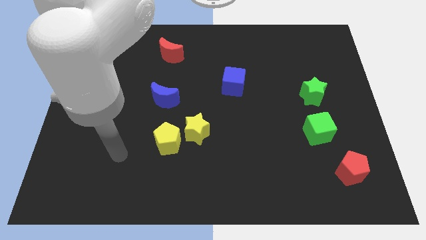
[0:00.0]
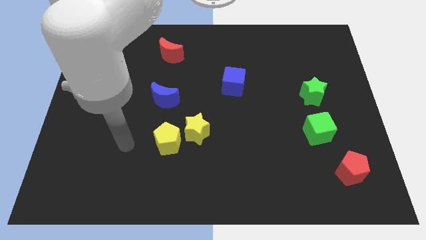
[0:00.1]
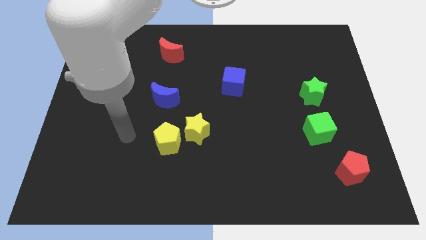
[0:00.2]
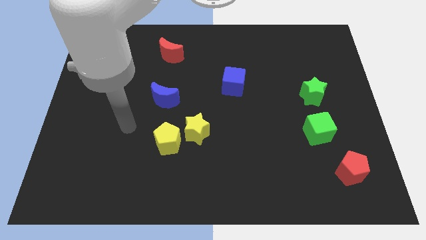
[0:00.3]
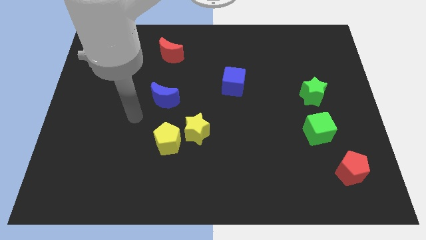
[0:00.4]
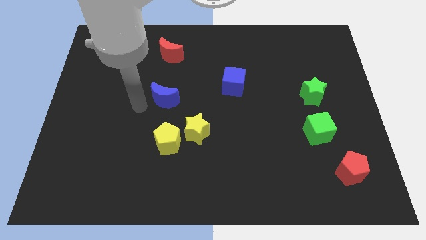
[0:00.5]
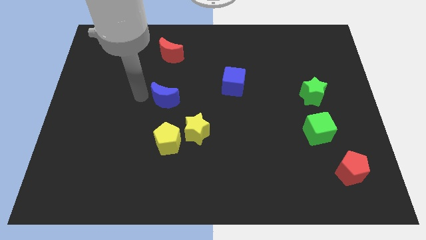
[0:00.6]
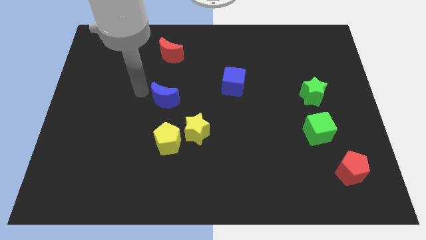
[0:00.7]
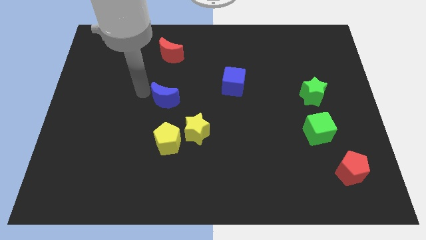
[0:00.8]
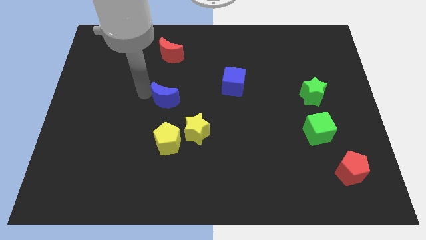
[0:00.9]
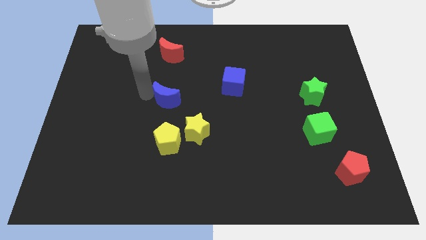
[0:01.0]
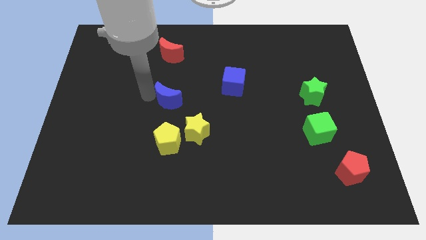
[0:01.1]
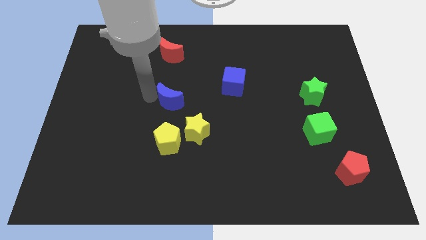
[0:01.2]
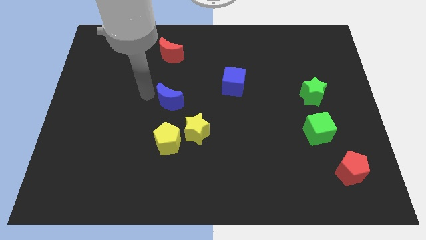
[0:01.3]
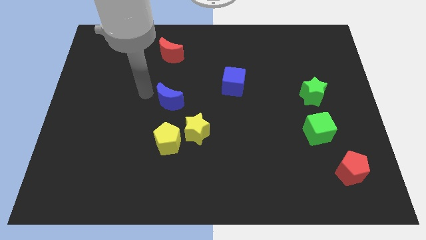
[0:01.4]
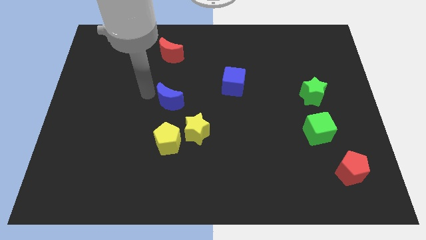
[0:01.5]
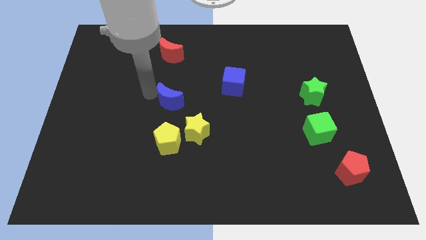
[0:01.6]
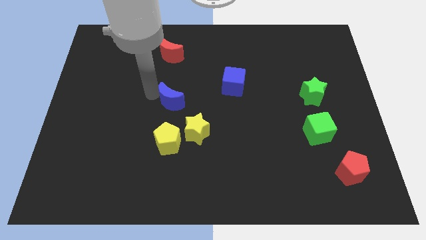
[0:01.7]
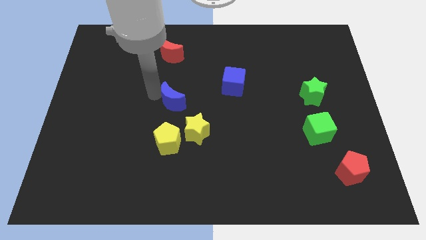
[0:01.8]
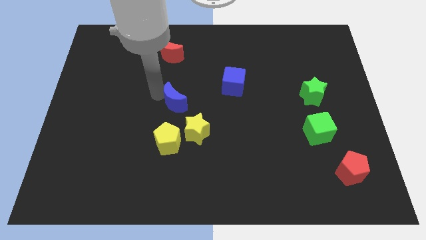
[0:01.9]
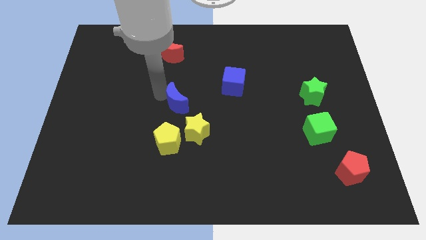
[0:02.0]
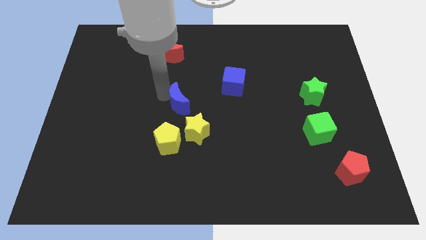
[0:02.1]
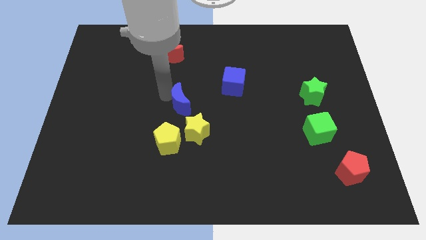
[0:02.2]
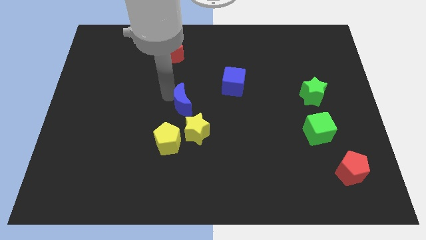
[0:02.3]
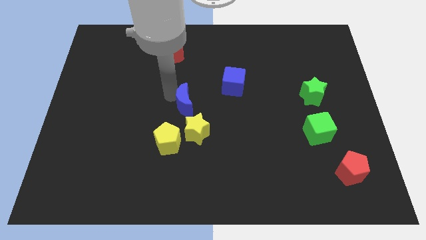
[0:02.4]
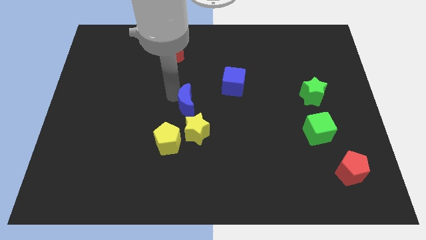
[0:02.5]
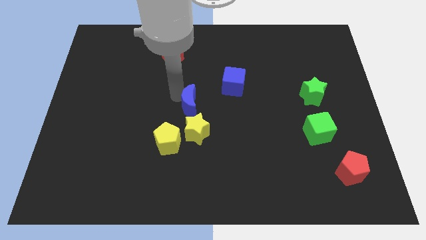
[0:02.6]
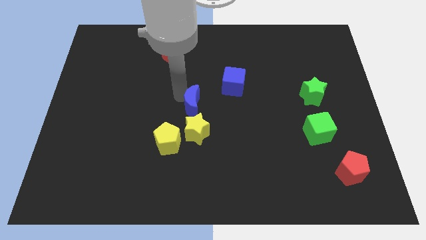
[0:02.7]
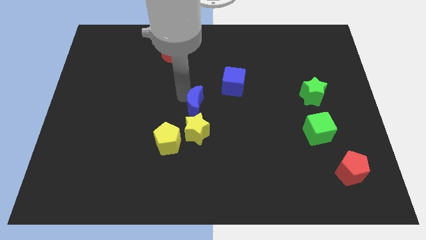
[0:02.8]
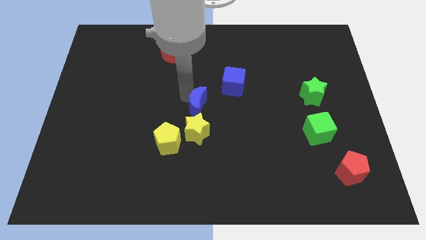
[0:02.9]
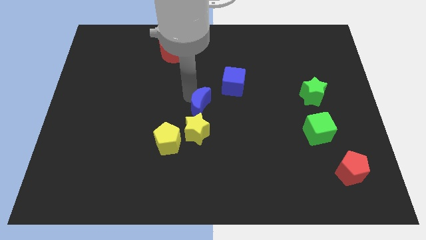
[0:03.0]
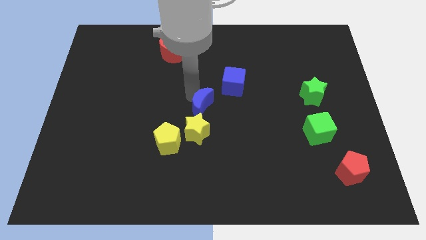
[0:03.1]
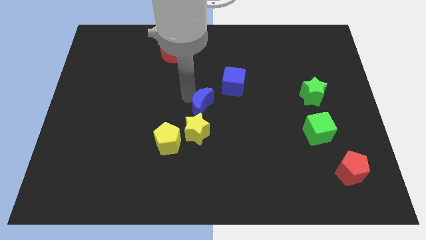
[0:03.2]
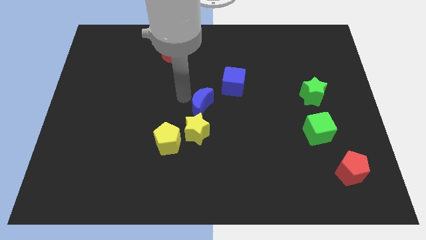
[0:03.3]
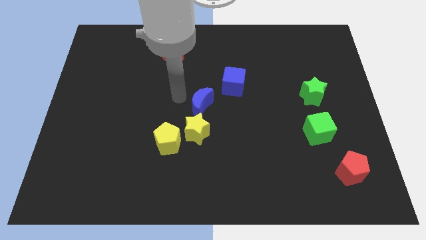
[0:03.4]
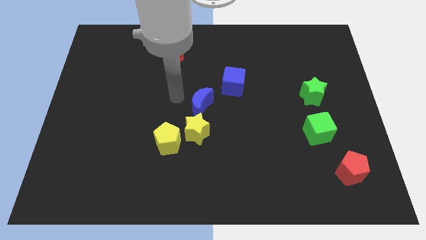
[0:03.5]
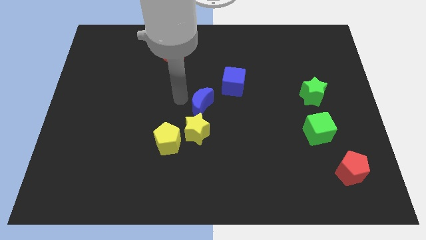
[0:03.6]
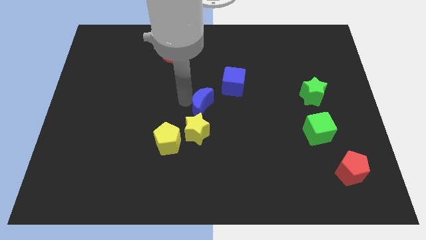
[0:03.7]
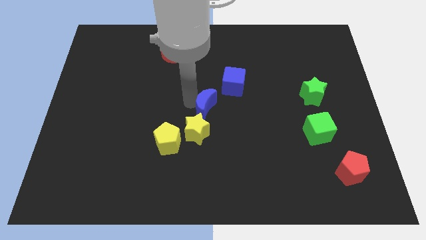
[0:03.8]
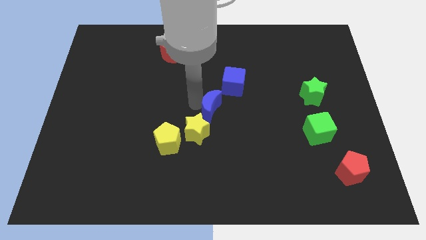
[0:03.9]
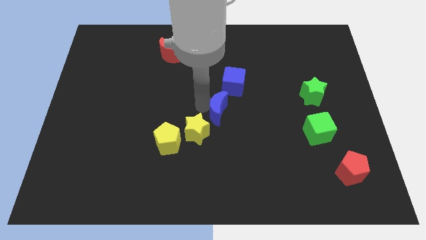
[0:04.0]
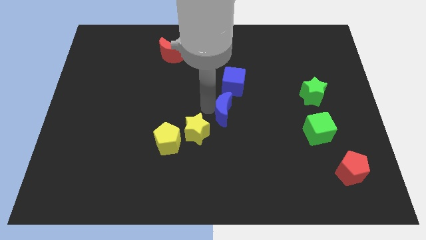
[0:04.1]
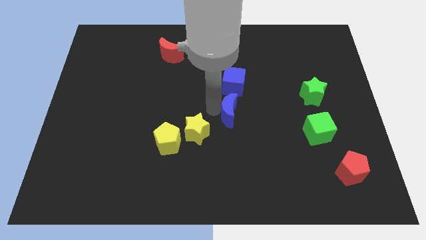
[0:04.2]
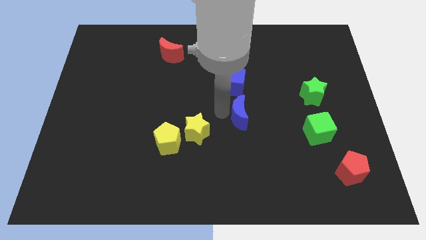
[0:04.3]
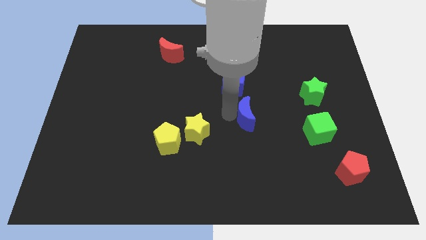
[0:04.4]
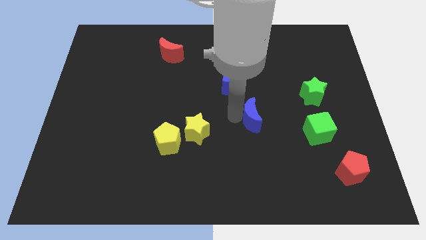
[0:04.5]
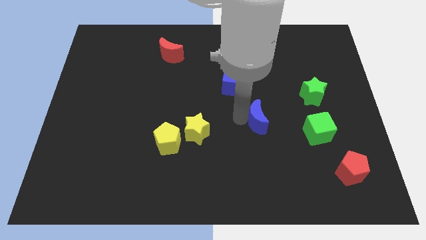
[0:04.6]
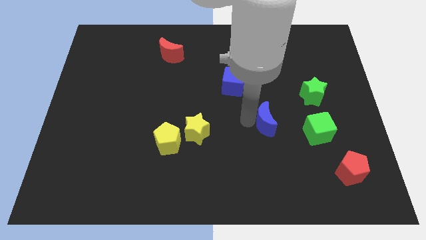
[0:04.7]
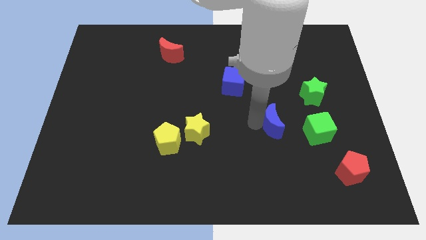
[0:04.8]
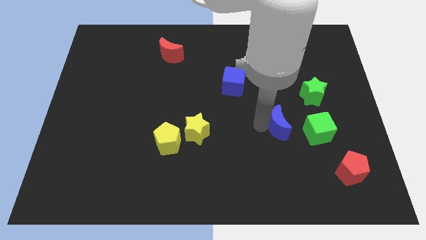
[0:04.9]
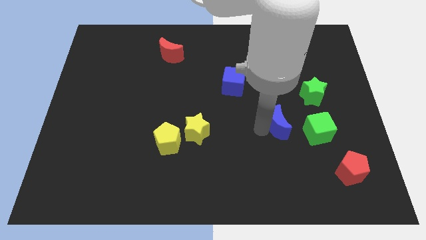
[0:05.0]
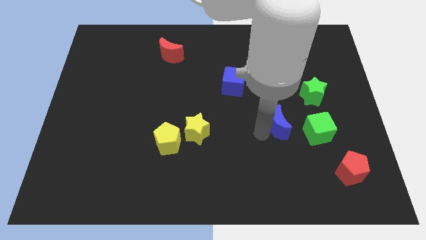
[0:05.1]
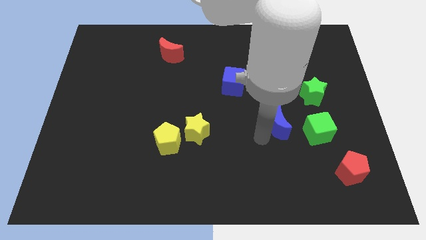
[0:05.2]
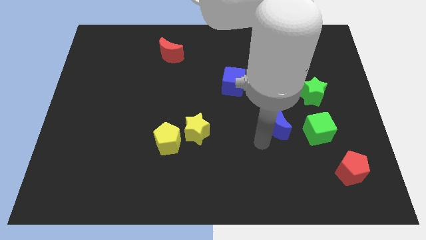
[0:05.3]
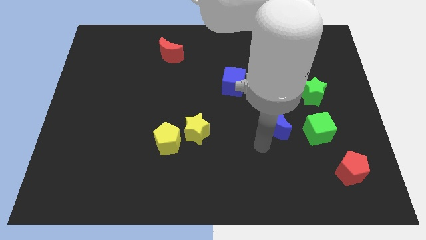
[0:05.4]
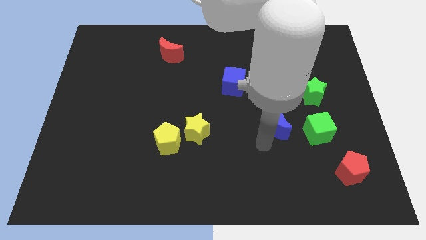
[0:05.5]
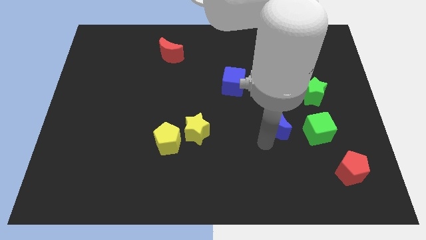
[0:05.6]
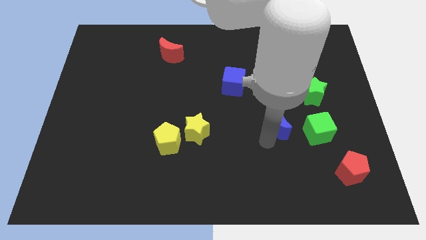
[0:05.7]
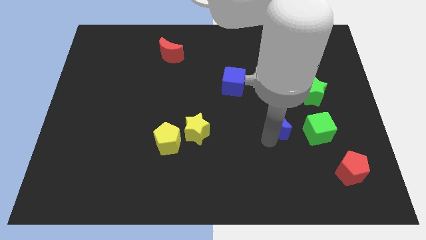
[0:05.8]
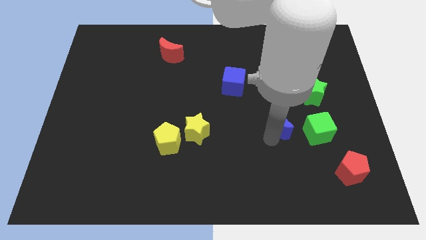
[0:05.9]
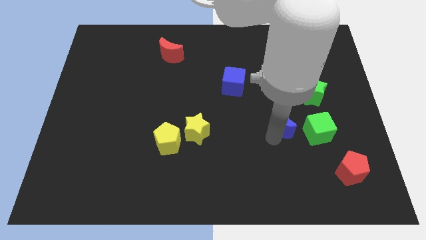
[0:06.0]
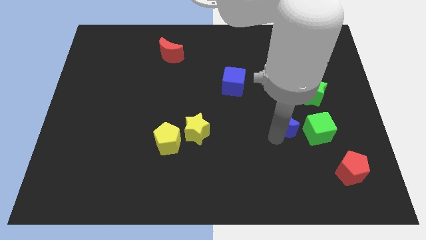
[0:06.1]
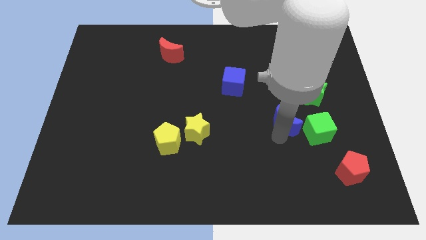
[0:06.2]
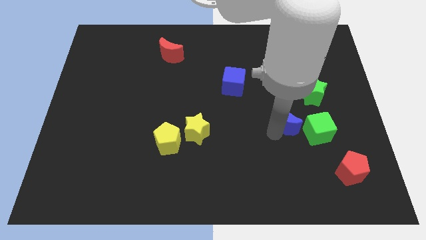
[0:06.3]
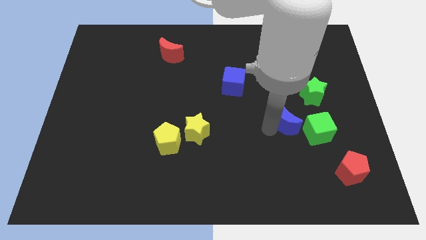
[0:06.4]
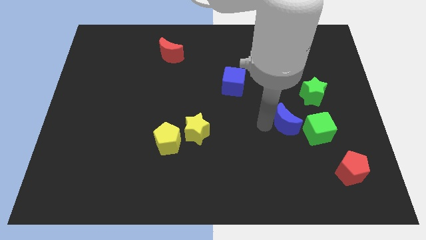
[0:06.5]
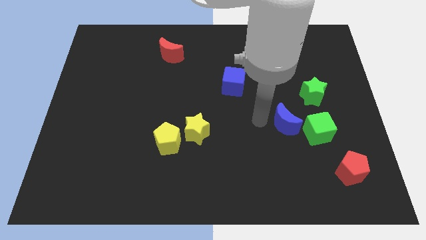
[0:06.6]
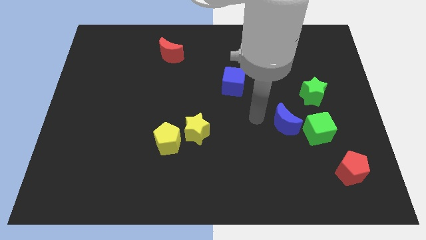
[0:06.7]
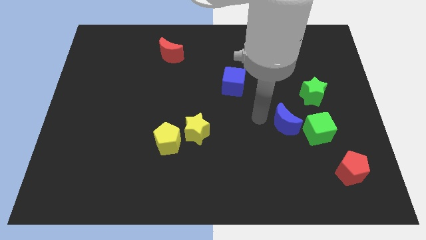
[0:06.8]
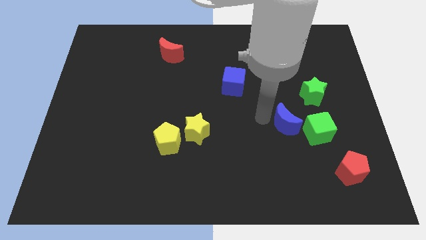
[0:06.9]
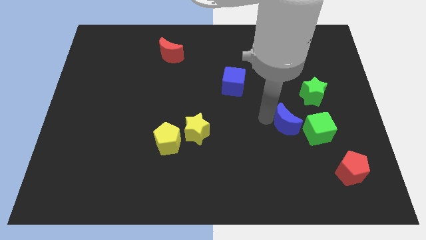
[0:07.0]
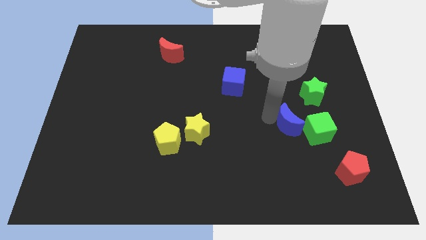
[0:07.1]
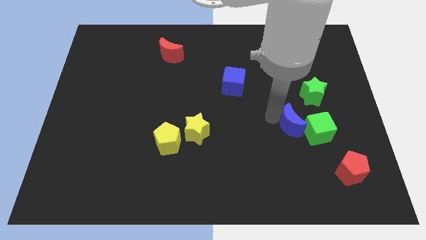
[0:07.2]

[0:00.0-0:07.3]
slide the blue moon next to the green cube

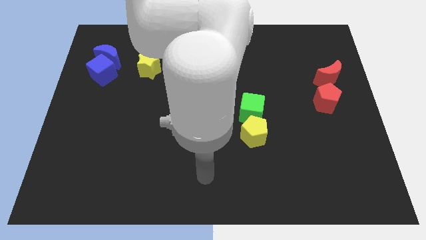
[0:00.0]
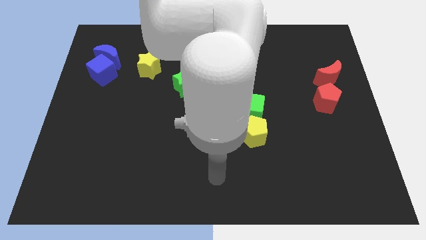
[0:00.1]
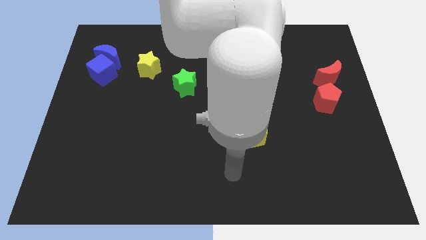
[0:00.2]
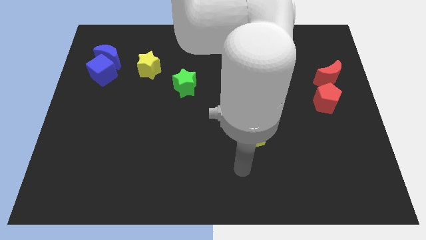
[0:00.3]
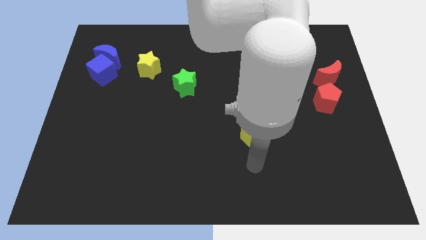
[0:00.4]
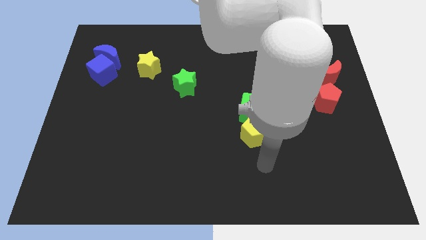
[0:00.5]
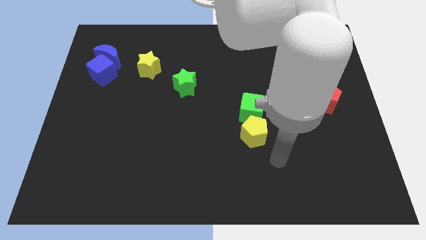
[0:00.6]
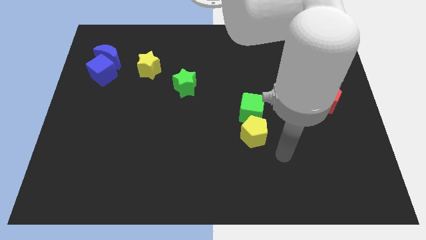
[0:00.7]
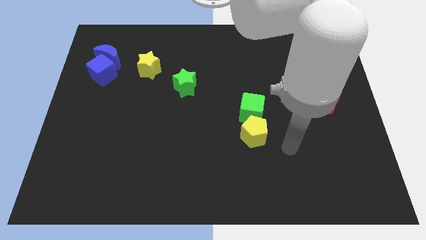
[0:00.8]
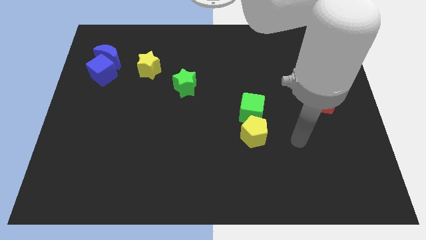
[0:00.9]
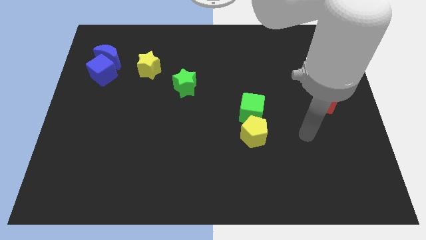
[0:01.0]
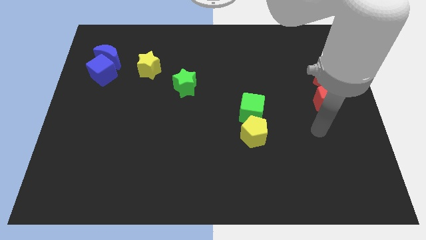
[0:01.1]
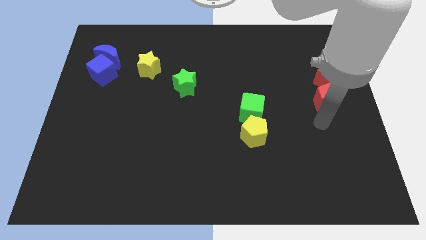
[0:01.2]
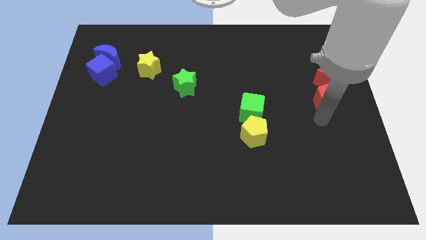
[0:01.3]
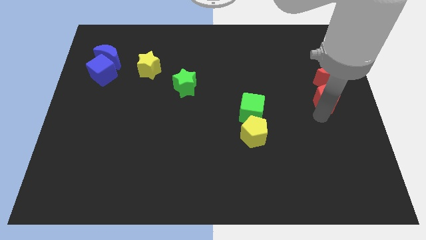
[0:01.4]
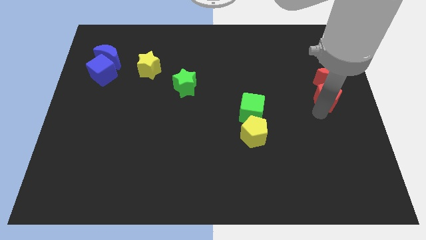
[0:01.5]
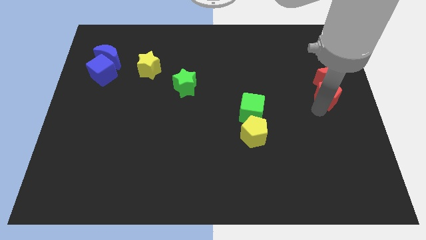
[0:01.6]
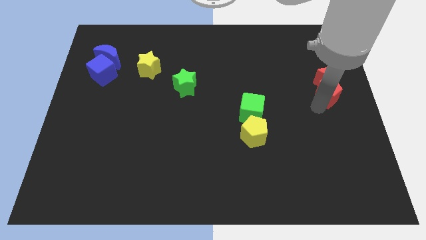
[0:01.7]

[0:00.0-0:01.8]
put the red pentagon to the red moon
